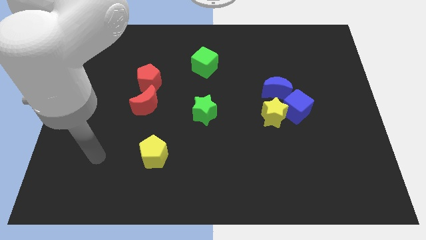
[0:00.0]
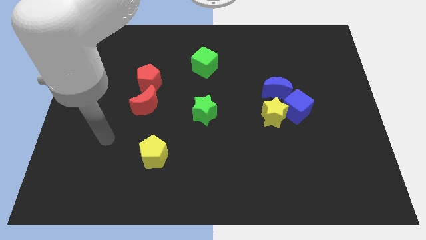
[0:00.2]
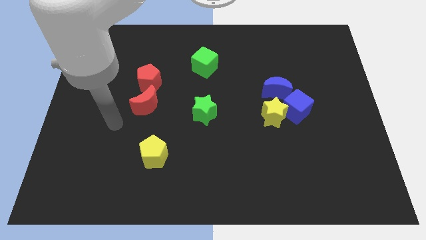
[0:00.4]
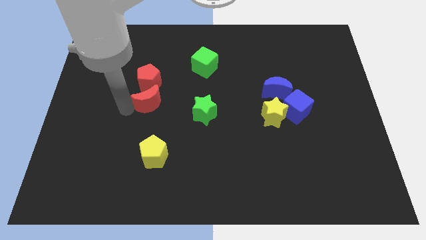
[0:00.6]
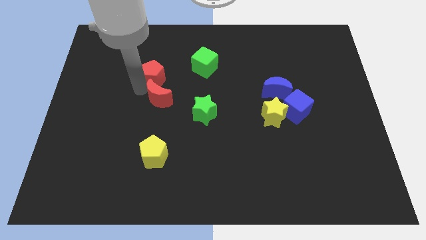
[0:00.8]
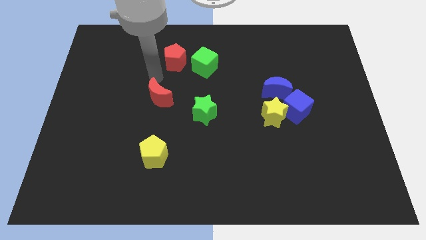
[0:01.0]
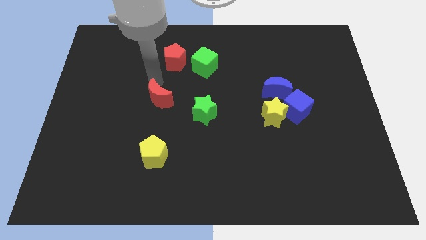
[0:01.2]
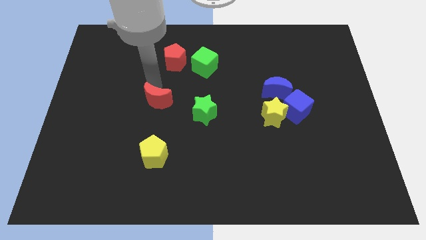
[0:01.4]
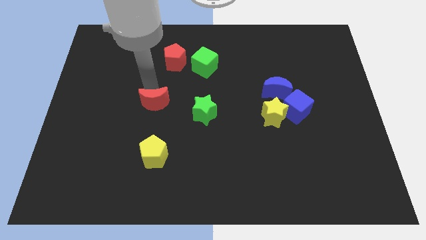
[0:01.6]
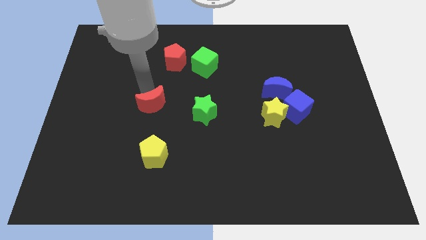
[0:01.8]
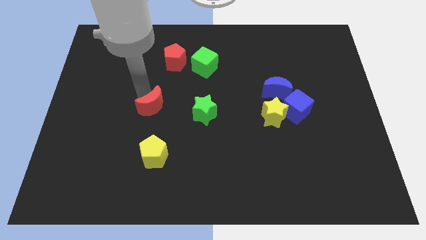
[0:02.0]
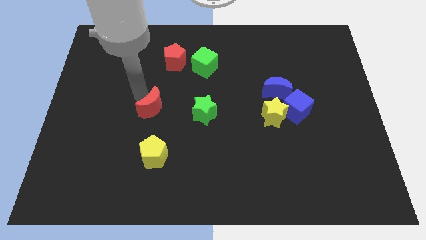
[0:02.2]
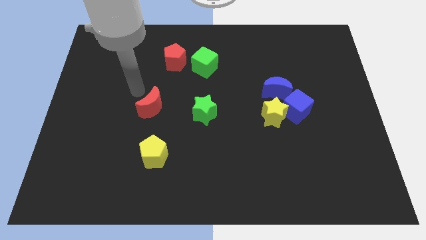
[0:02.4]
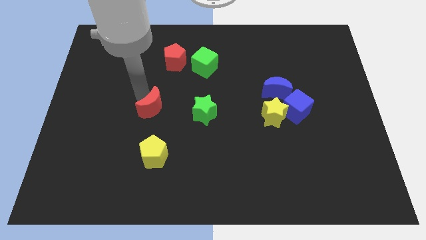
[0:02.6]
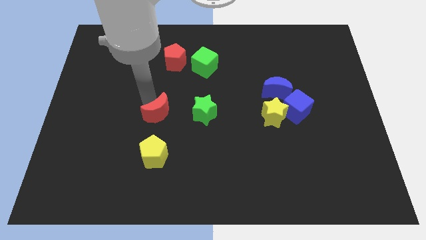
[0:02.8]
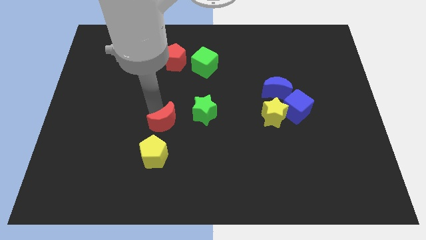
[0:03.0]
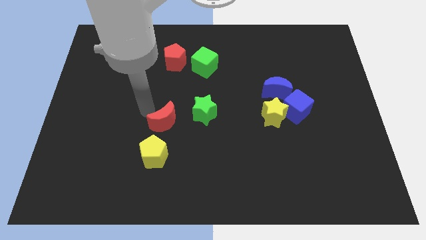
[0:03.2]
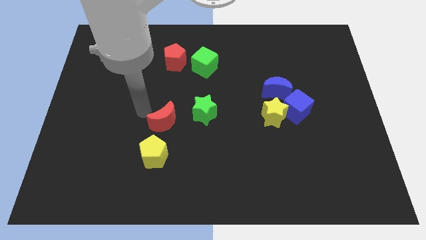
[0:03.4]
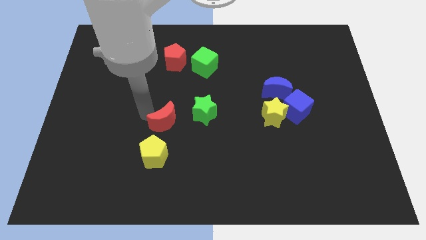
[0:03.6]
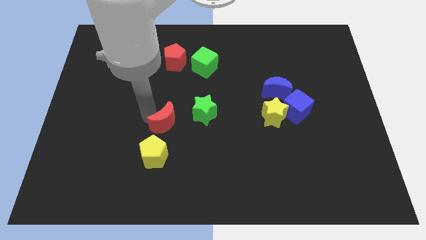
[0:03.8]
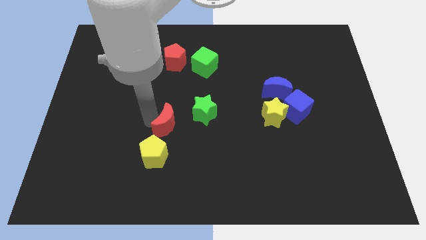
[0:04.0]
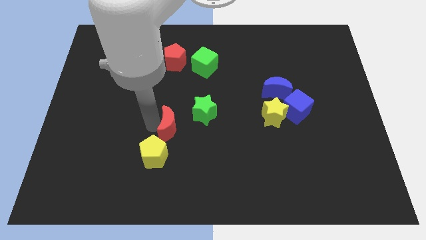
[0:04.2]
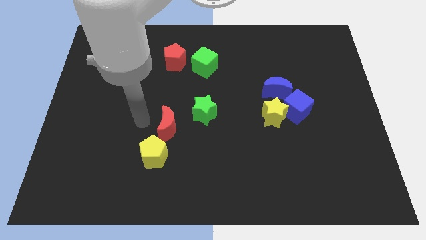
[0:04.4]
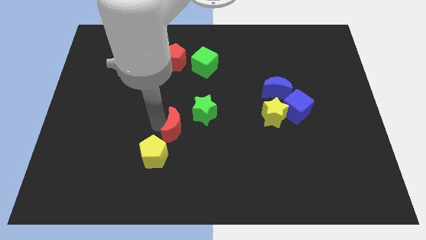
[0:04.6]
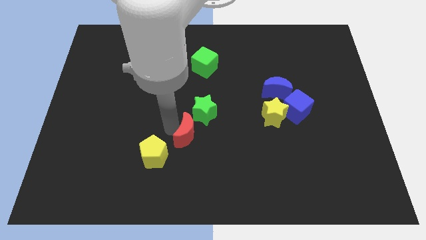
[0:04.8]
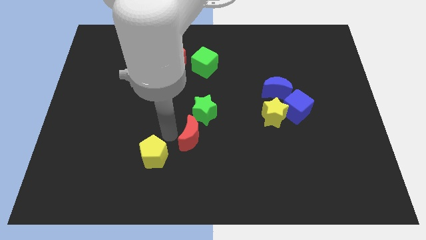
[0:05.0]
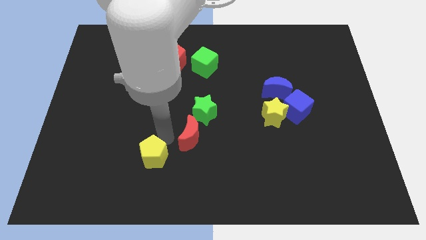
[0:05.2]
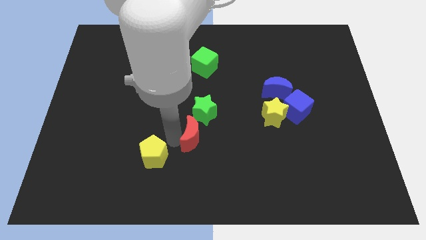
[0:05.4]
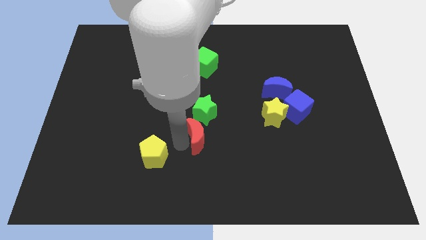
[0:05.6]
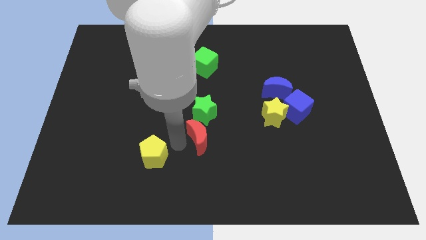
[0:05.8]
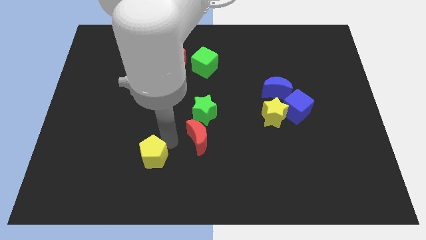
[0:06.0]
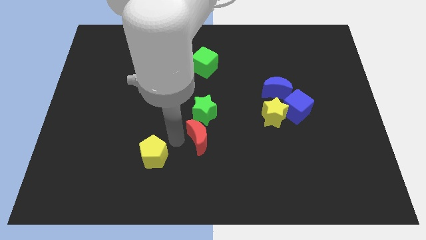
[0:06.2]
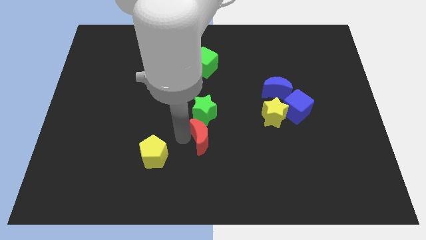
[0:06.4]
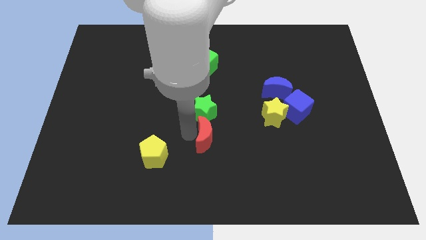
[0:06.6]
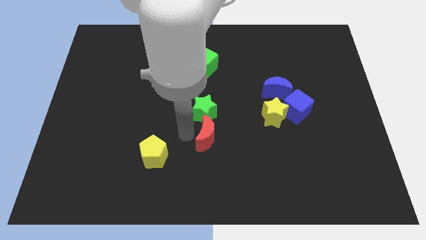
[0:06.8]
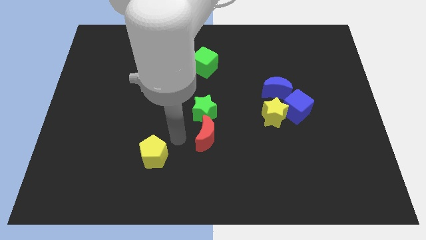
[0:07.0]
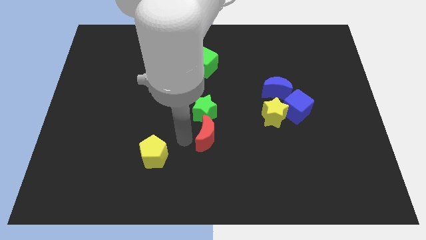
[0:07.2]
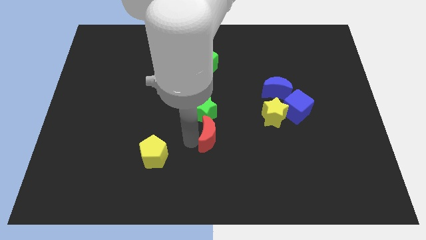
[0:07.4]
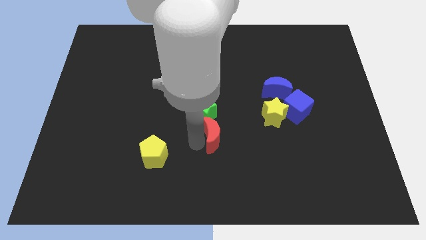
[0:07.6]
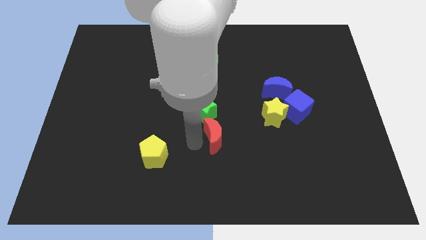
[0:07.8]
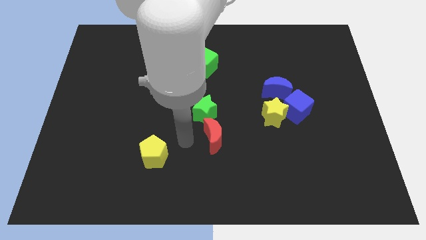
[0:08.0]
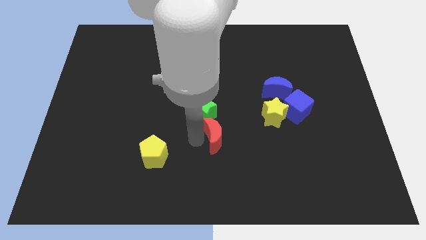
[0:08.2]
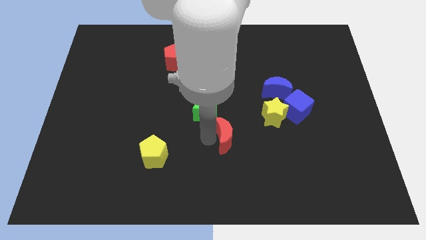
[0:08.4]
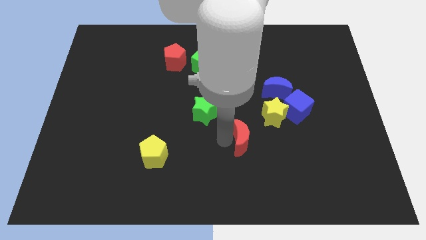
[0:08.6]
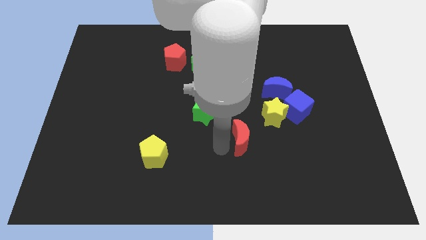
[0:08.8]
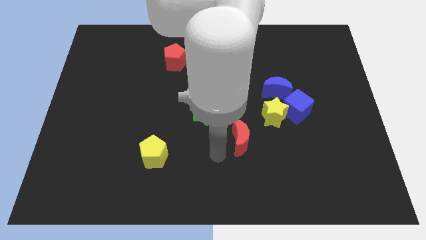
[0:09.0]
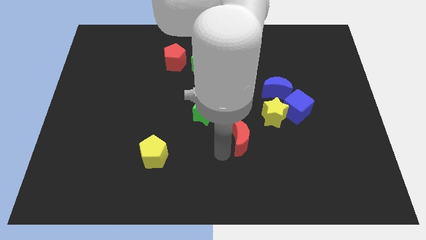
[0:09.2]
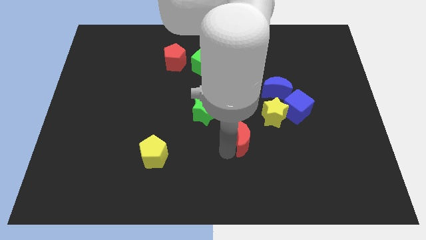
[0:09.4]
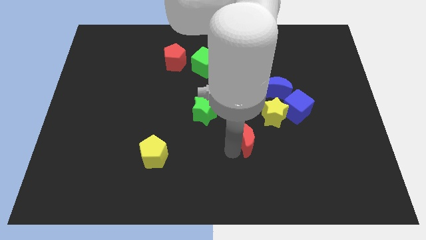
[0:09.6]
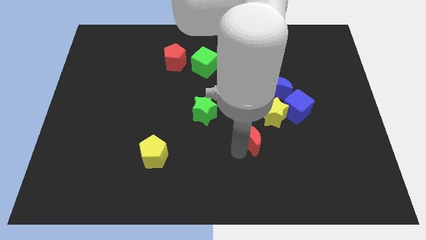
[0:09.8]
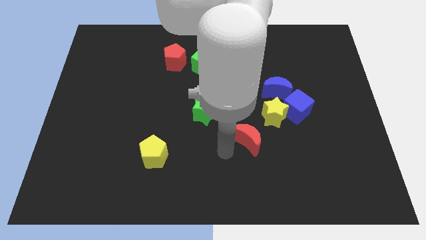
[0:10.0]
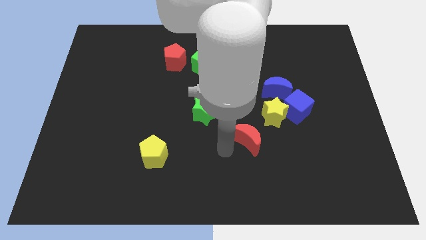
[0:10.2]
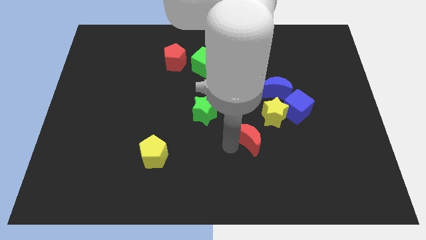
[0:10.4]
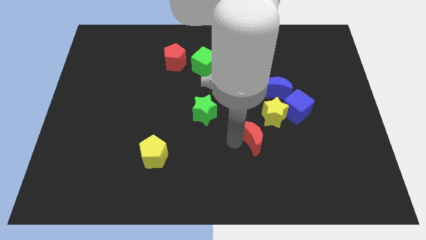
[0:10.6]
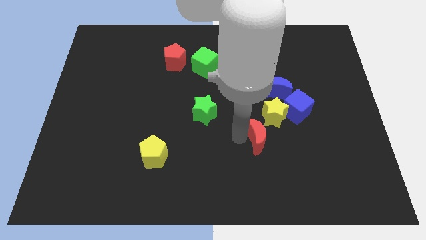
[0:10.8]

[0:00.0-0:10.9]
push the red moon to the bottom left side of the blue cube
